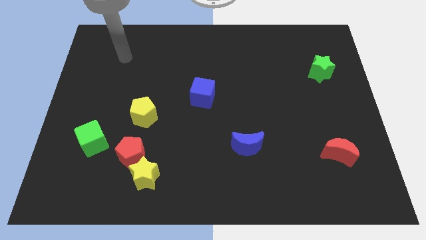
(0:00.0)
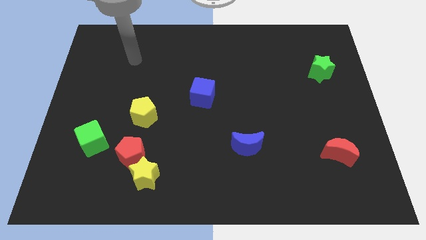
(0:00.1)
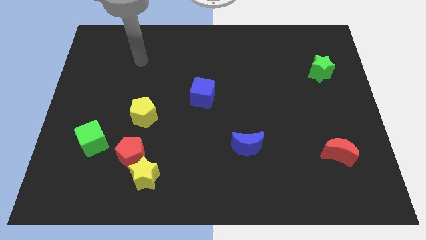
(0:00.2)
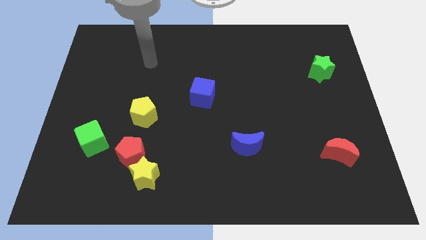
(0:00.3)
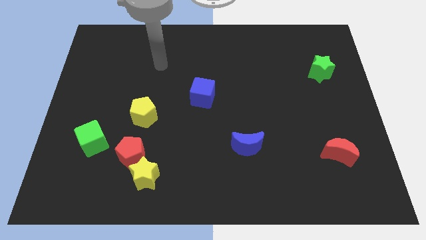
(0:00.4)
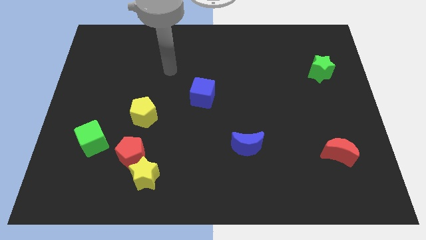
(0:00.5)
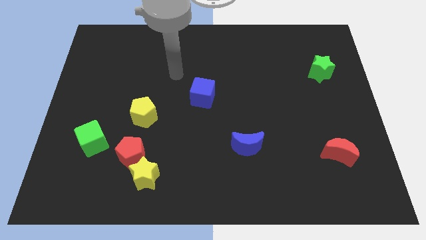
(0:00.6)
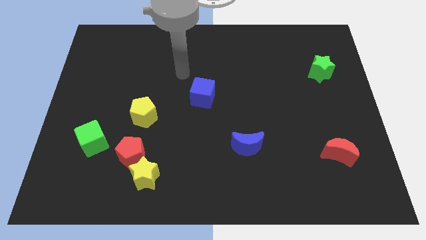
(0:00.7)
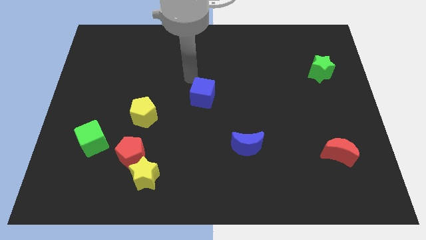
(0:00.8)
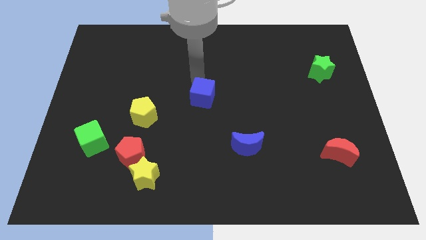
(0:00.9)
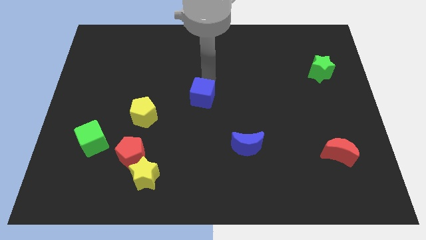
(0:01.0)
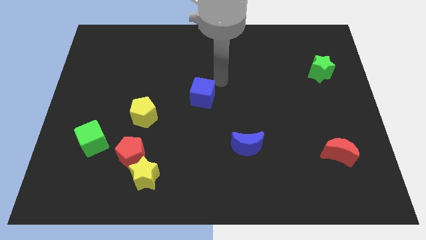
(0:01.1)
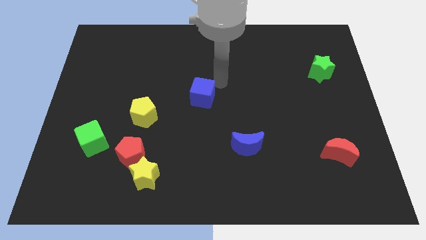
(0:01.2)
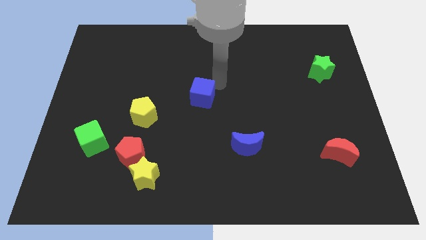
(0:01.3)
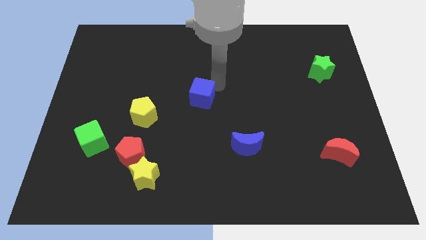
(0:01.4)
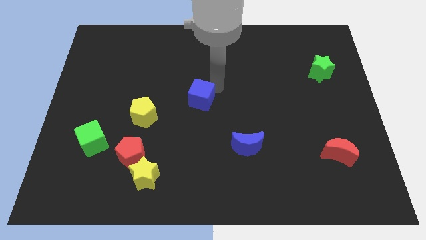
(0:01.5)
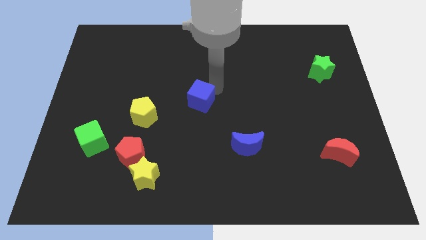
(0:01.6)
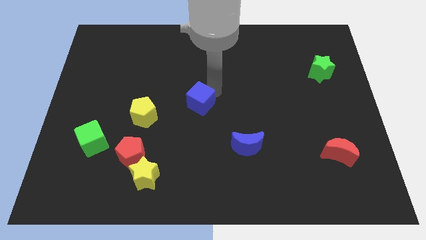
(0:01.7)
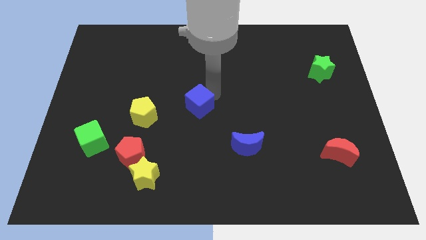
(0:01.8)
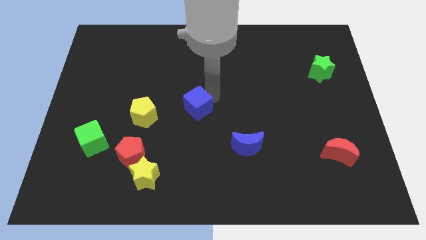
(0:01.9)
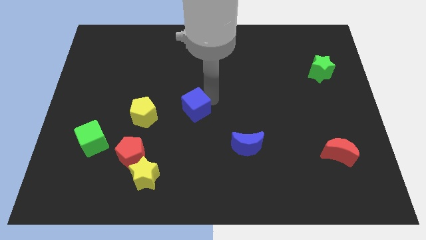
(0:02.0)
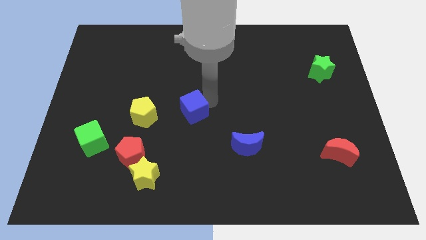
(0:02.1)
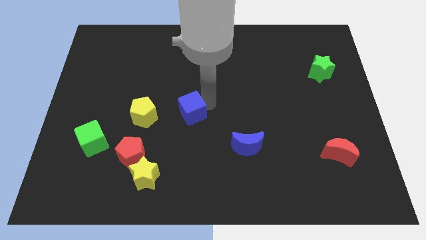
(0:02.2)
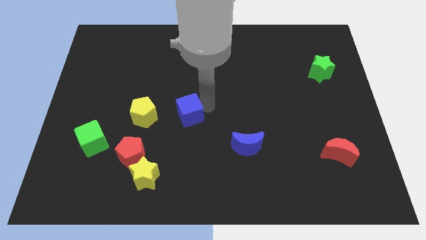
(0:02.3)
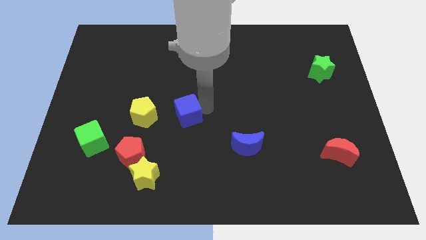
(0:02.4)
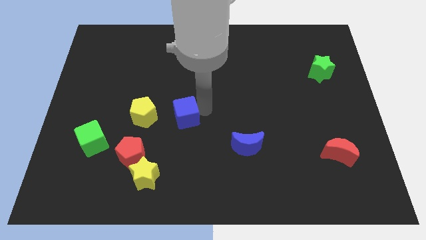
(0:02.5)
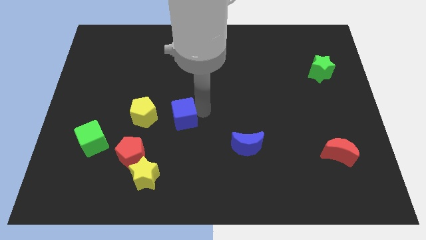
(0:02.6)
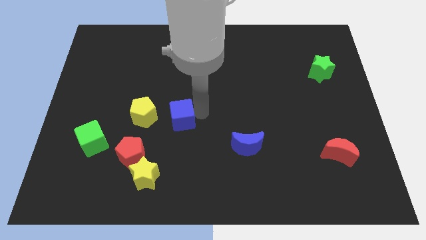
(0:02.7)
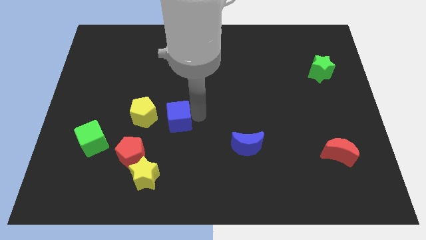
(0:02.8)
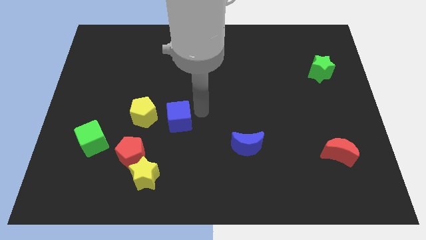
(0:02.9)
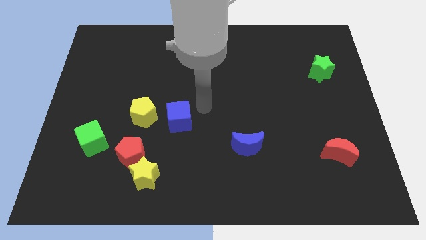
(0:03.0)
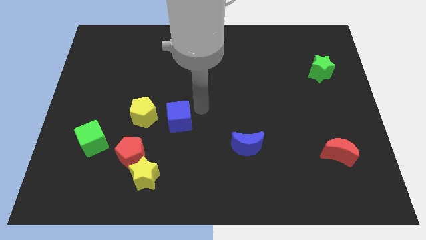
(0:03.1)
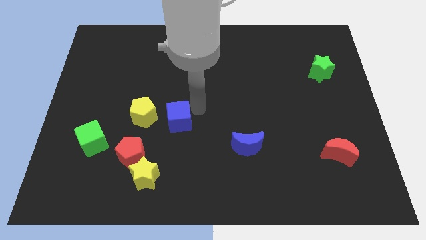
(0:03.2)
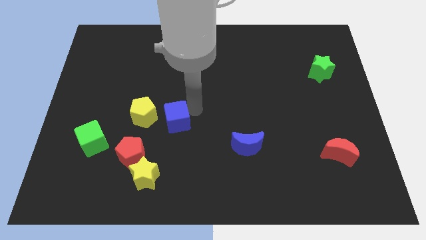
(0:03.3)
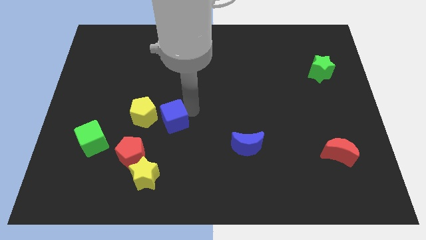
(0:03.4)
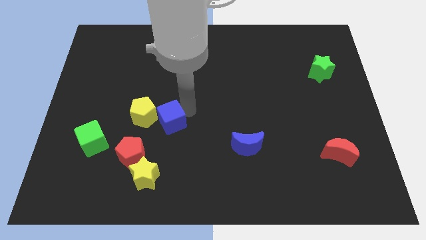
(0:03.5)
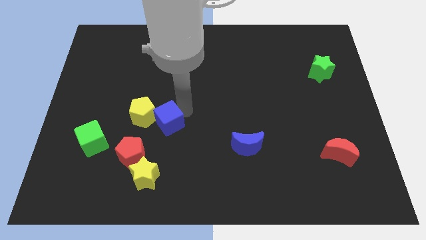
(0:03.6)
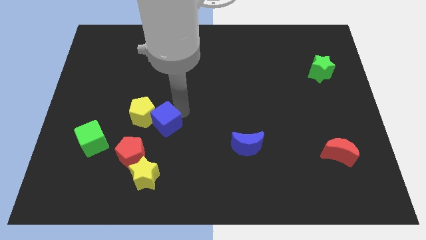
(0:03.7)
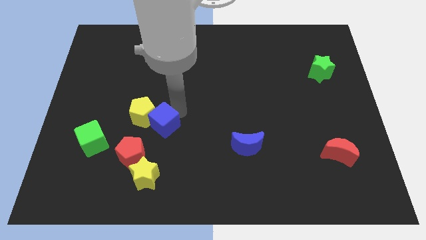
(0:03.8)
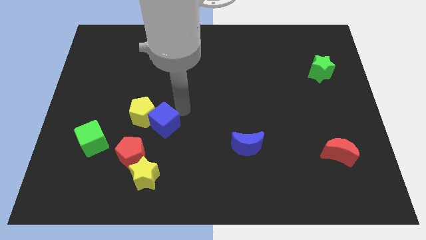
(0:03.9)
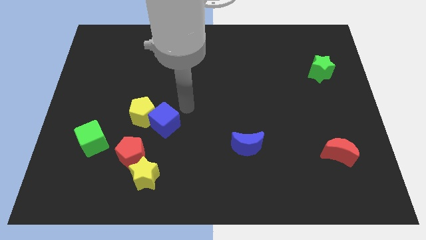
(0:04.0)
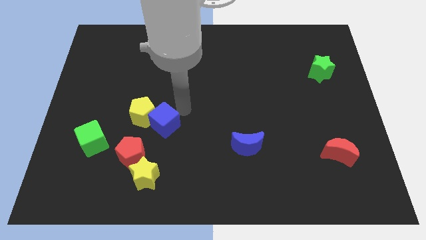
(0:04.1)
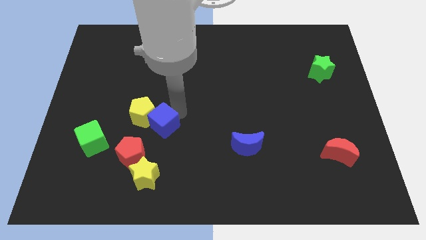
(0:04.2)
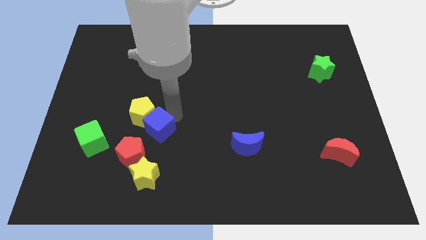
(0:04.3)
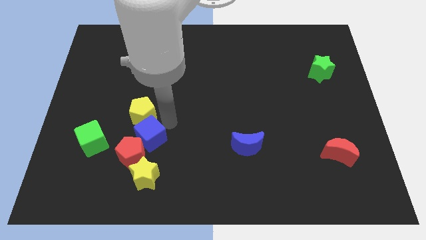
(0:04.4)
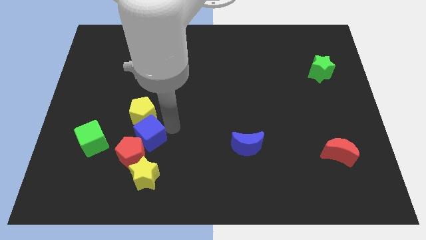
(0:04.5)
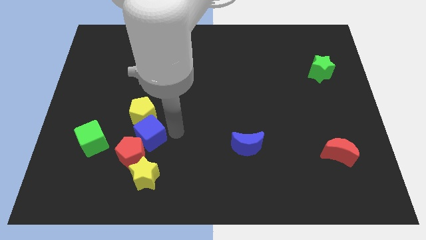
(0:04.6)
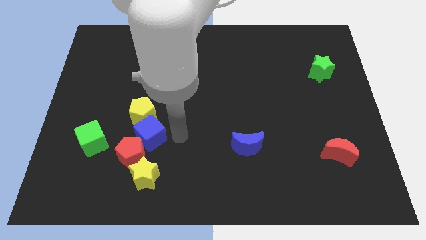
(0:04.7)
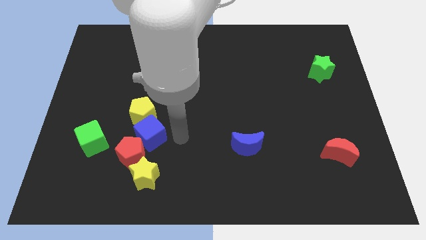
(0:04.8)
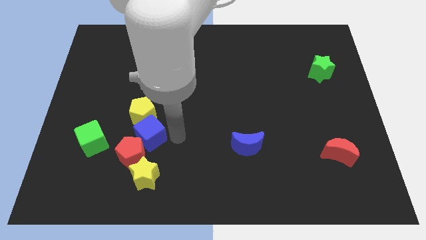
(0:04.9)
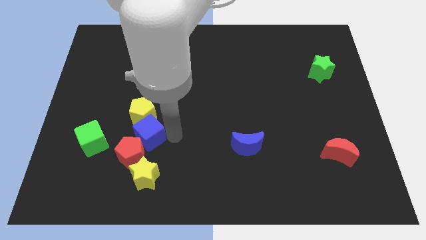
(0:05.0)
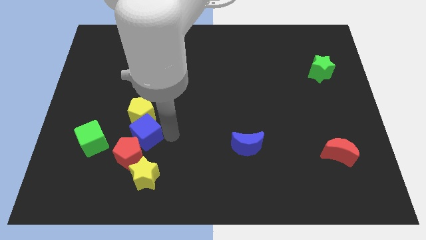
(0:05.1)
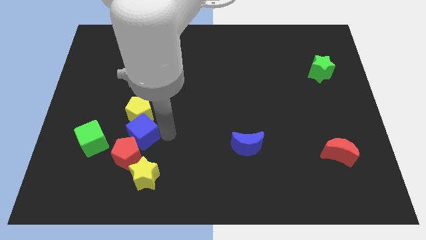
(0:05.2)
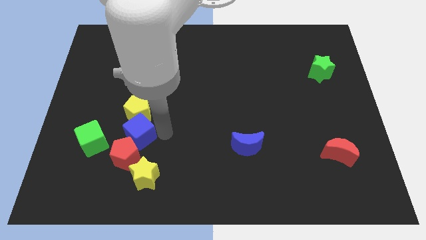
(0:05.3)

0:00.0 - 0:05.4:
slide the blue cube to the bottom left of the yellow pentagon

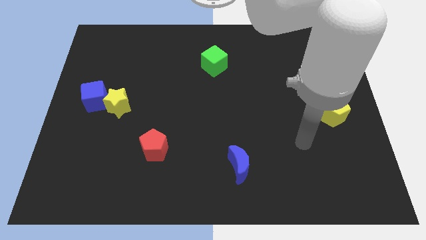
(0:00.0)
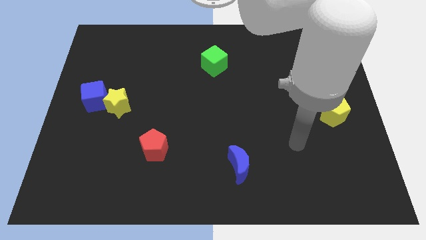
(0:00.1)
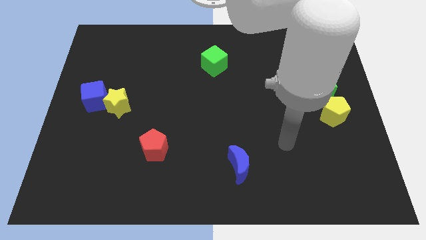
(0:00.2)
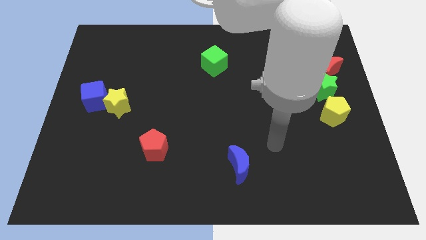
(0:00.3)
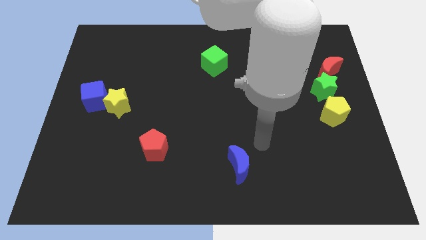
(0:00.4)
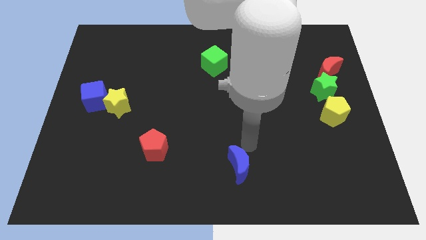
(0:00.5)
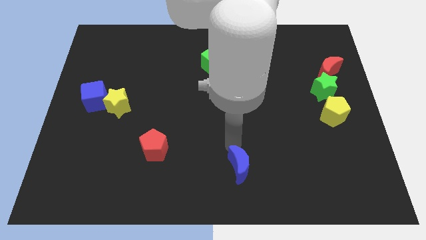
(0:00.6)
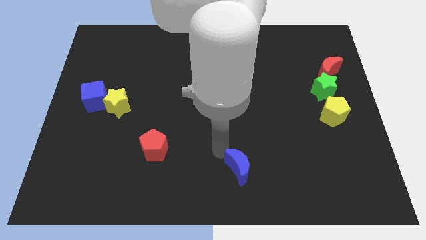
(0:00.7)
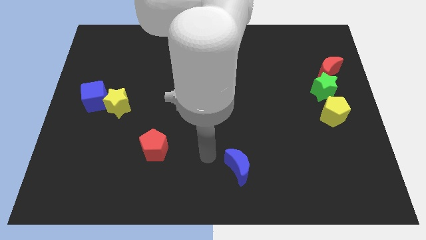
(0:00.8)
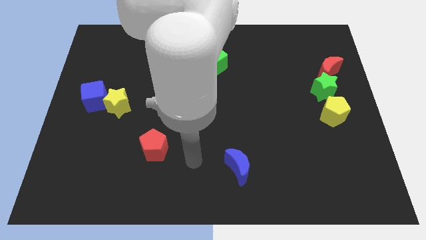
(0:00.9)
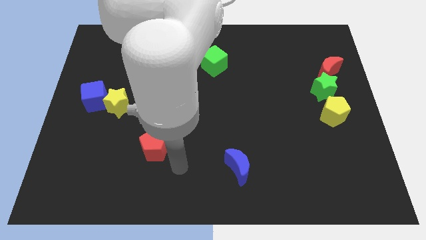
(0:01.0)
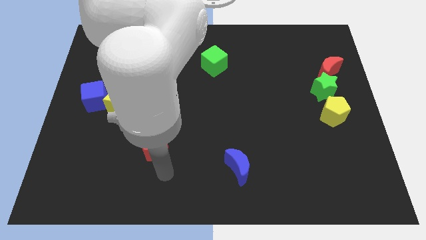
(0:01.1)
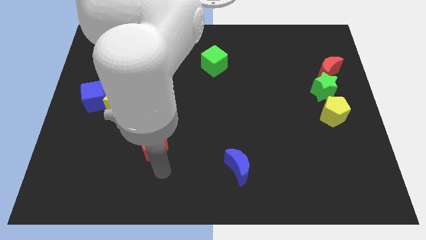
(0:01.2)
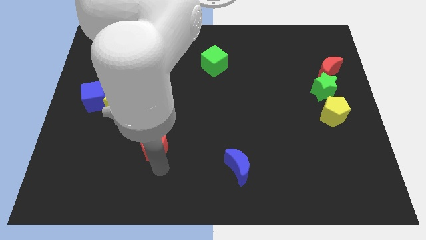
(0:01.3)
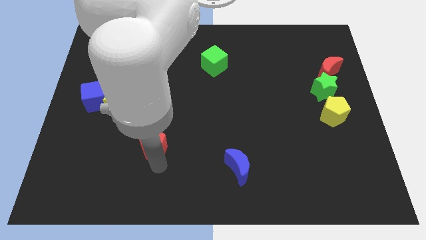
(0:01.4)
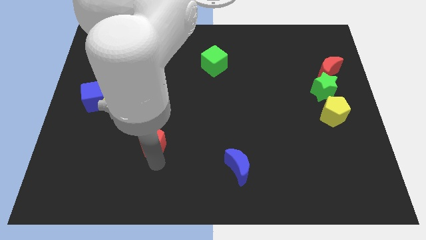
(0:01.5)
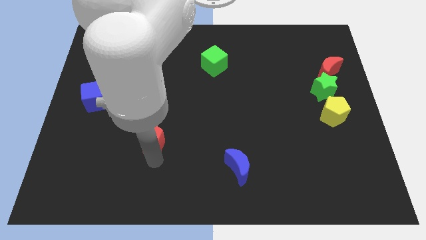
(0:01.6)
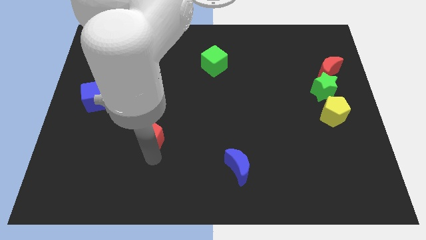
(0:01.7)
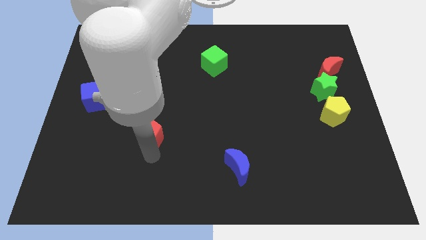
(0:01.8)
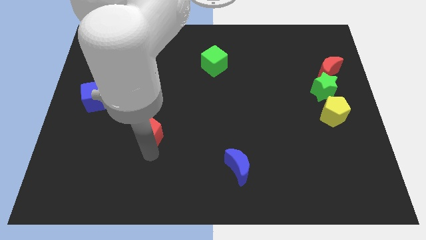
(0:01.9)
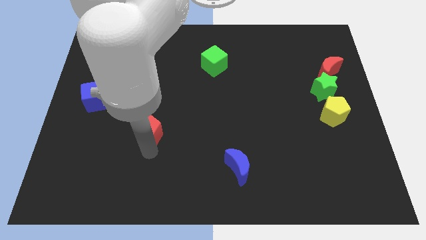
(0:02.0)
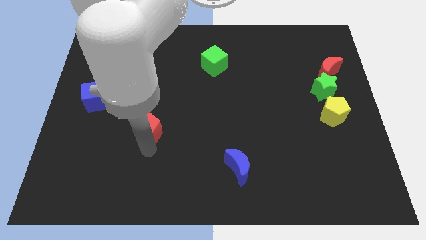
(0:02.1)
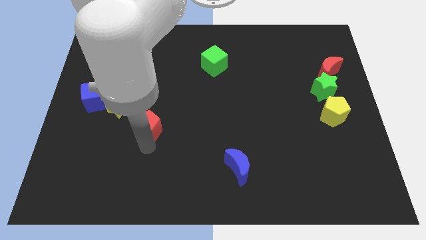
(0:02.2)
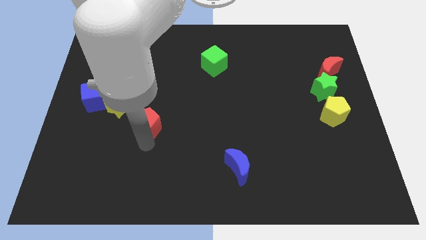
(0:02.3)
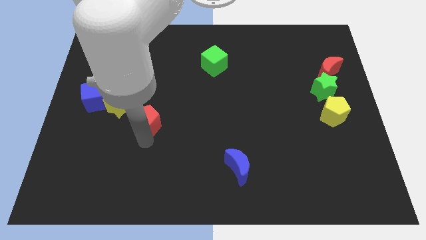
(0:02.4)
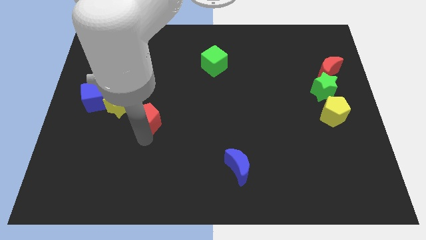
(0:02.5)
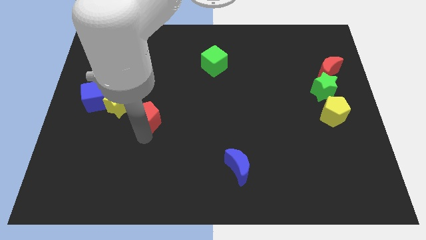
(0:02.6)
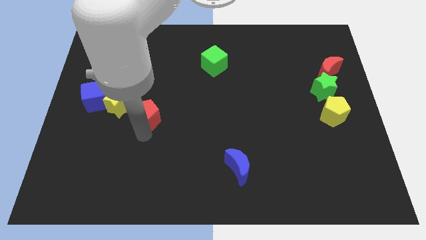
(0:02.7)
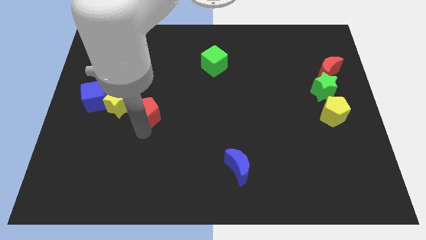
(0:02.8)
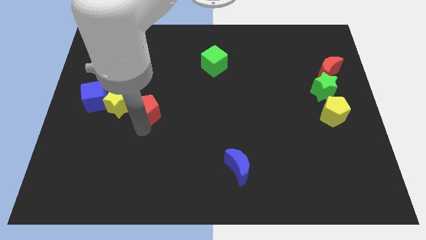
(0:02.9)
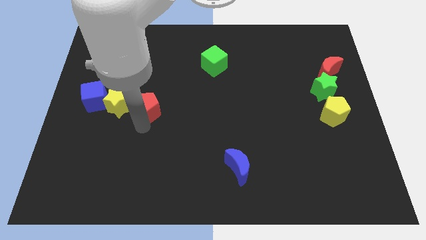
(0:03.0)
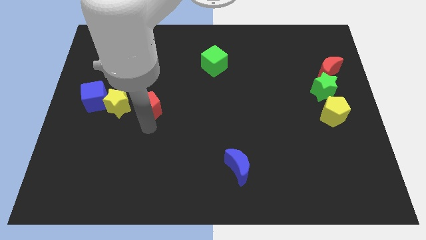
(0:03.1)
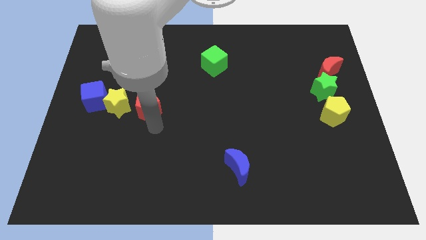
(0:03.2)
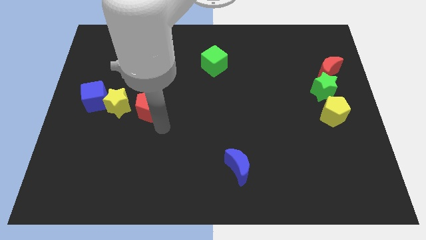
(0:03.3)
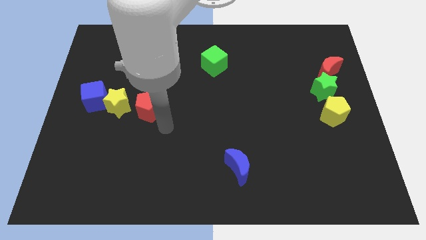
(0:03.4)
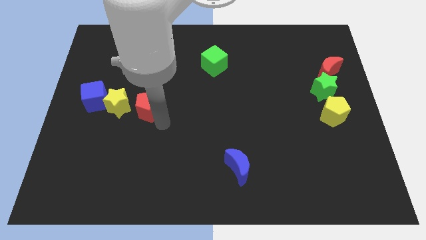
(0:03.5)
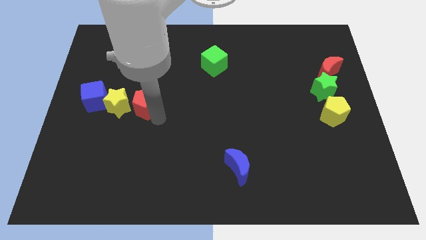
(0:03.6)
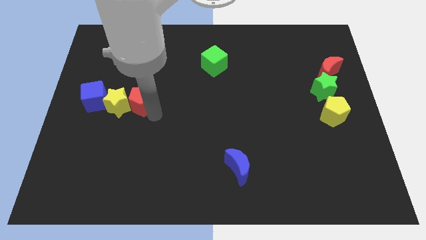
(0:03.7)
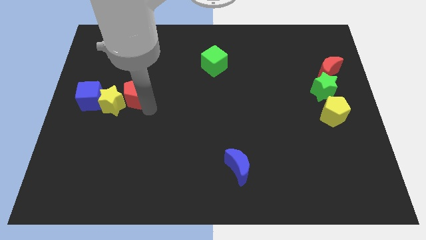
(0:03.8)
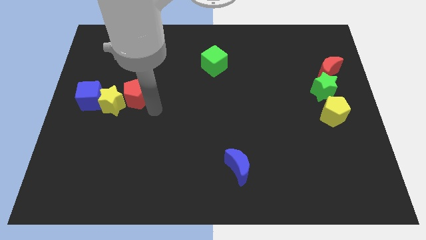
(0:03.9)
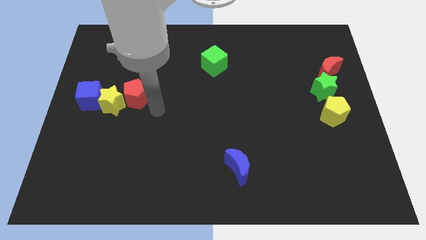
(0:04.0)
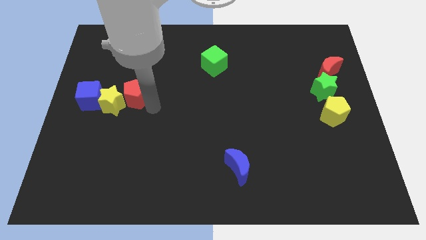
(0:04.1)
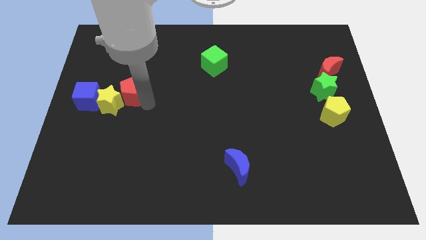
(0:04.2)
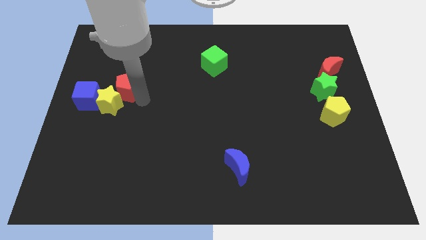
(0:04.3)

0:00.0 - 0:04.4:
slide the red pentagon to the top right side of the blue cube
